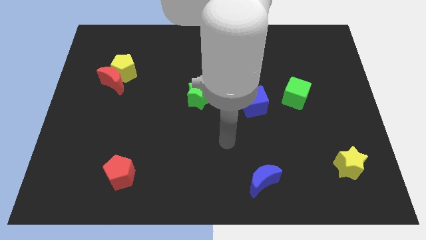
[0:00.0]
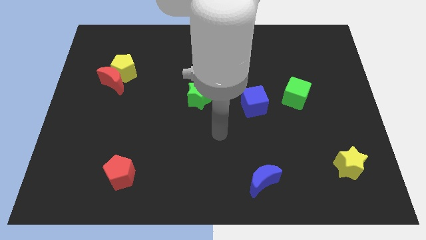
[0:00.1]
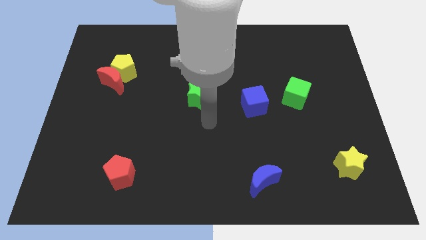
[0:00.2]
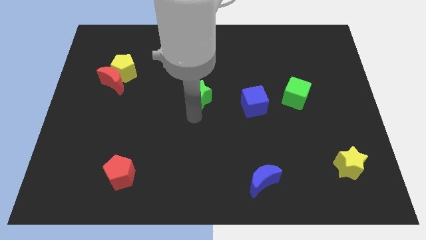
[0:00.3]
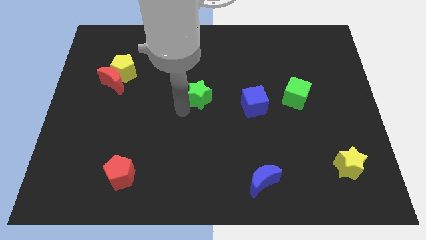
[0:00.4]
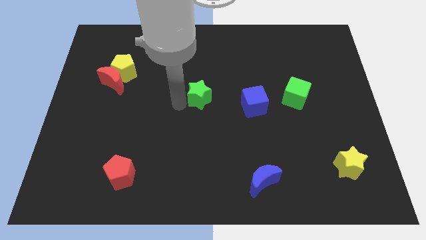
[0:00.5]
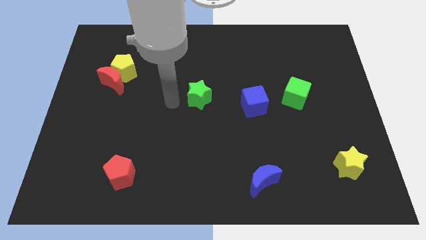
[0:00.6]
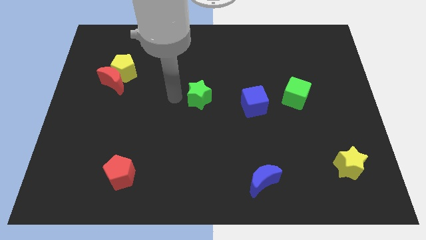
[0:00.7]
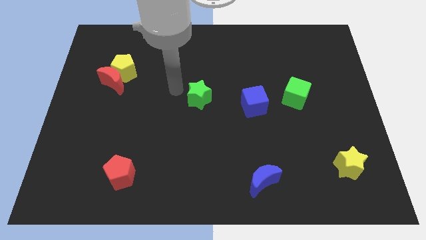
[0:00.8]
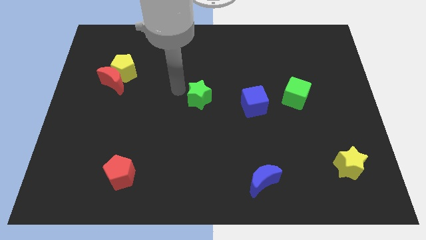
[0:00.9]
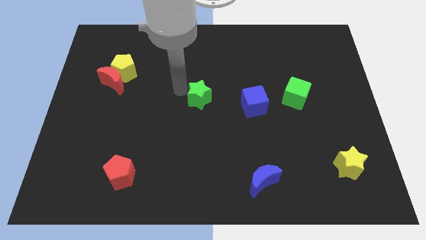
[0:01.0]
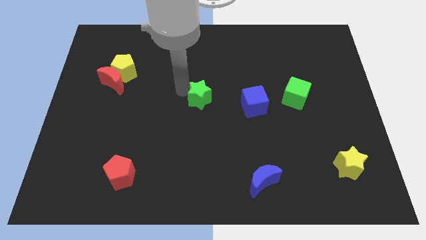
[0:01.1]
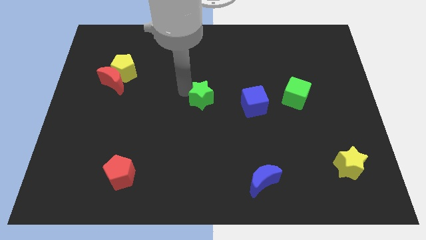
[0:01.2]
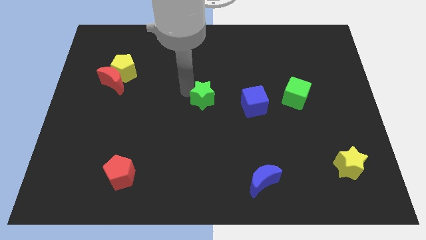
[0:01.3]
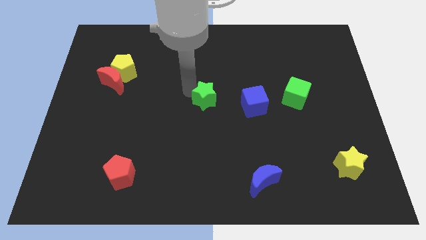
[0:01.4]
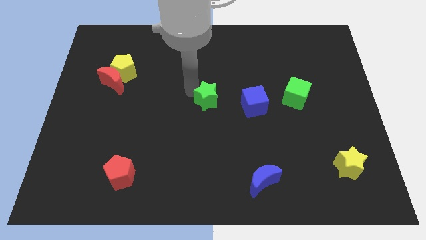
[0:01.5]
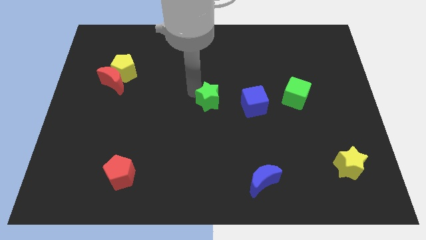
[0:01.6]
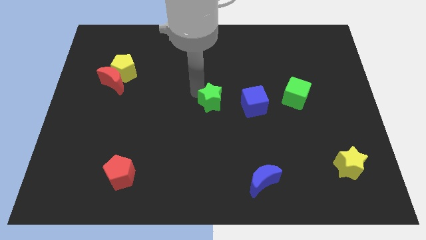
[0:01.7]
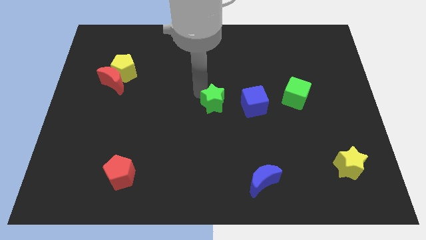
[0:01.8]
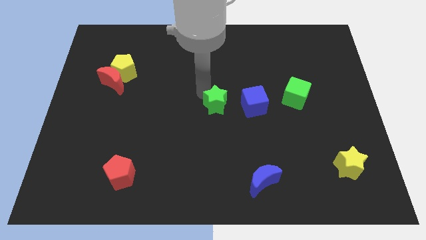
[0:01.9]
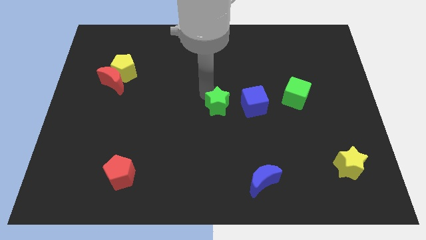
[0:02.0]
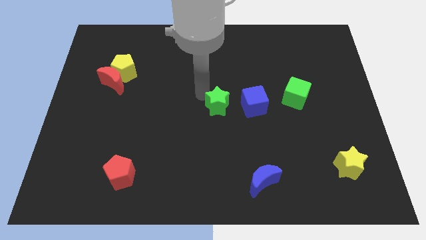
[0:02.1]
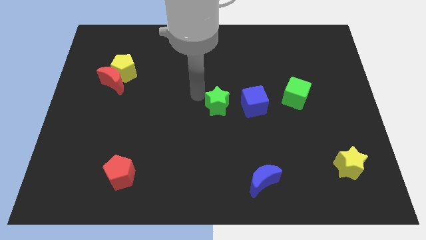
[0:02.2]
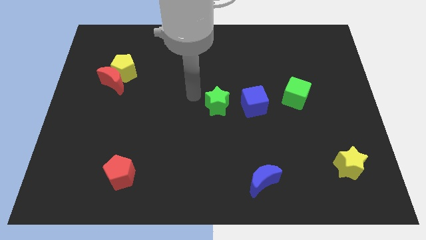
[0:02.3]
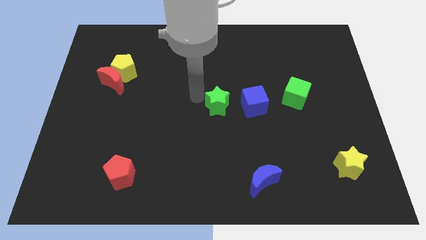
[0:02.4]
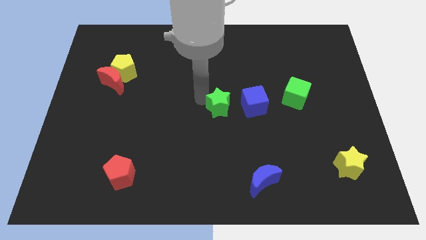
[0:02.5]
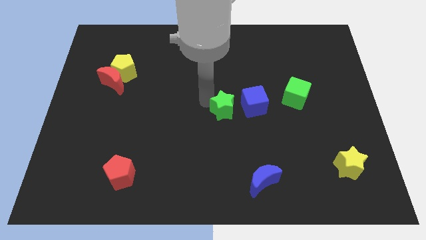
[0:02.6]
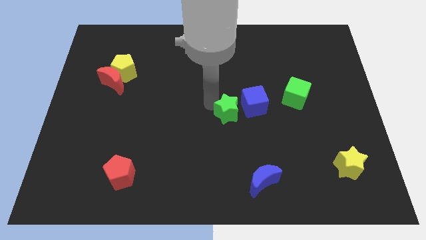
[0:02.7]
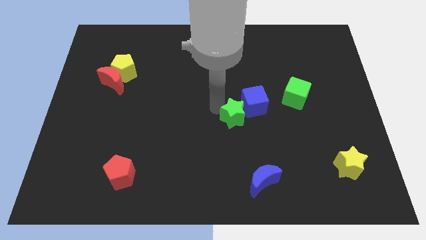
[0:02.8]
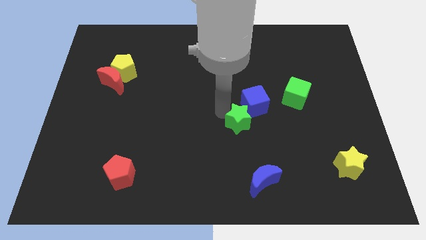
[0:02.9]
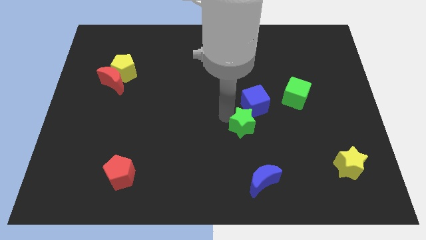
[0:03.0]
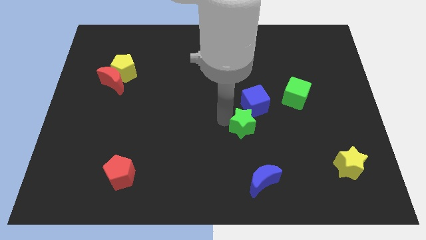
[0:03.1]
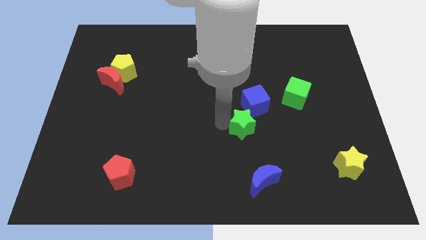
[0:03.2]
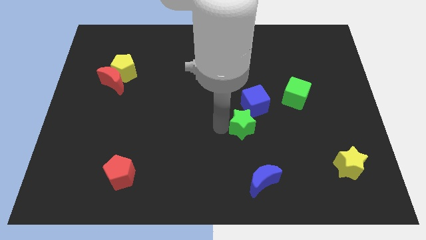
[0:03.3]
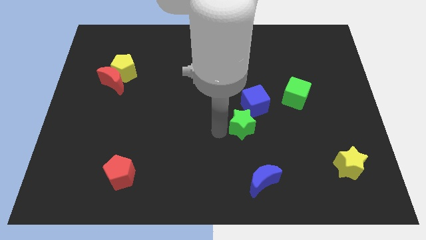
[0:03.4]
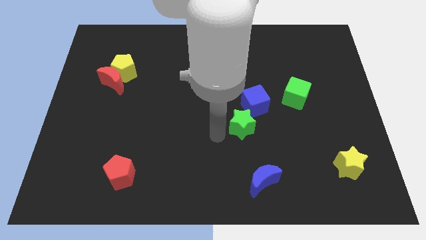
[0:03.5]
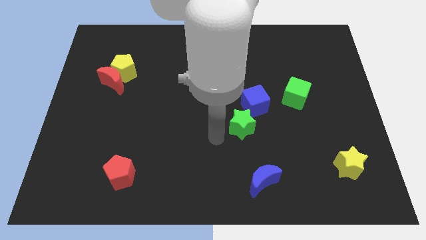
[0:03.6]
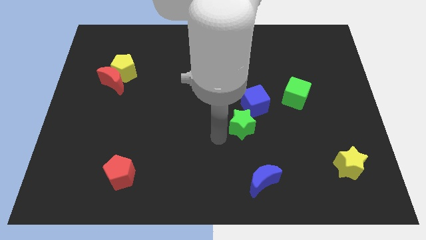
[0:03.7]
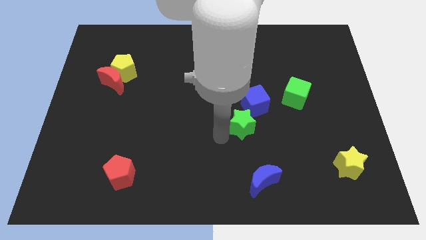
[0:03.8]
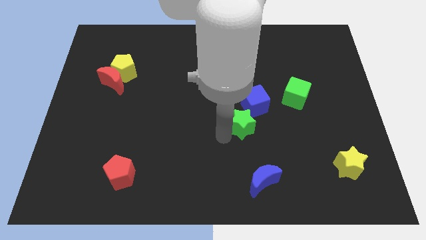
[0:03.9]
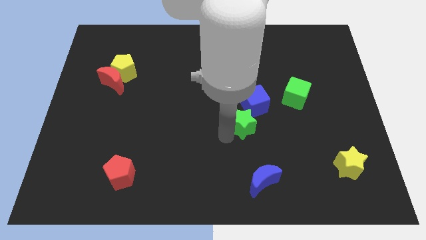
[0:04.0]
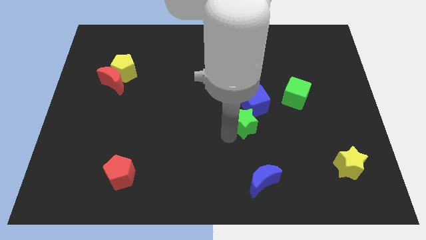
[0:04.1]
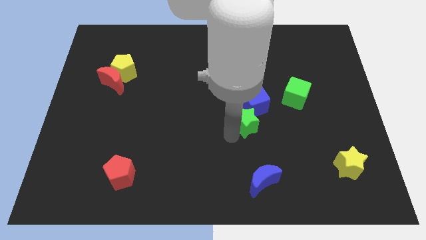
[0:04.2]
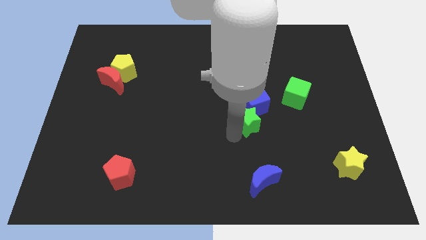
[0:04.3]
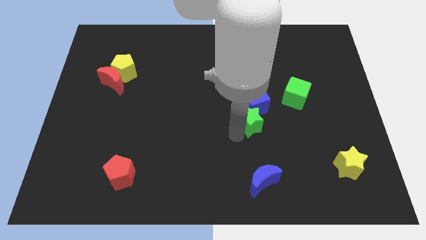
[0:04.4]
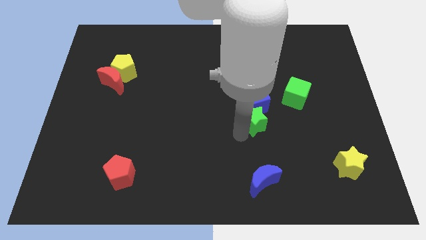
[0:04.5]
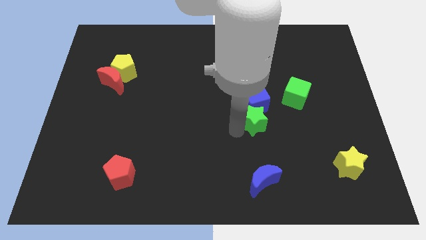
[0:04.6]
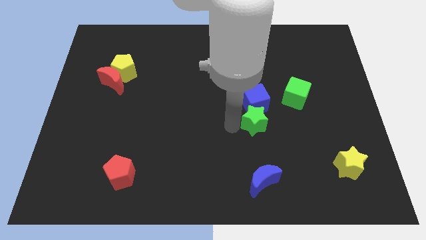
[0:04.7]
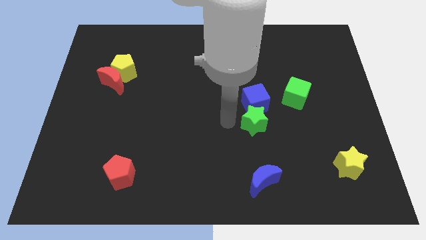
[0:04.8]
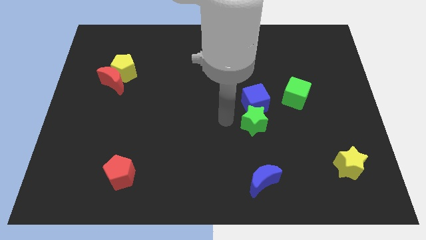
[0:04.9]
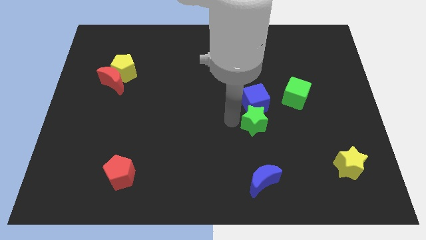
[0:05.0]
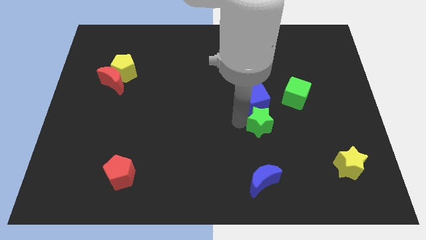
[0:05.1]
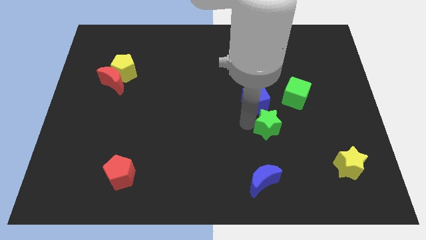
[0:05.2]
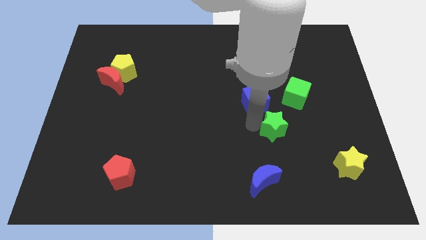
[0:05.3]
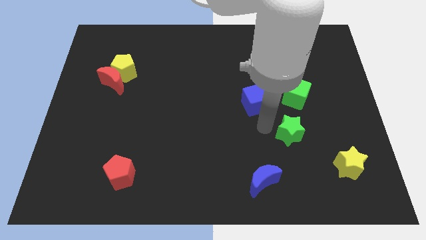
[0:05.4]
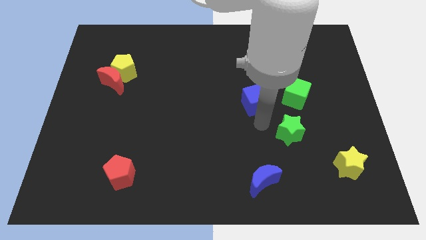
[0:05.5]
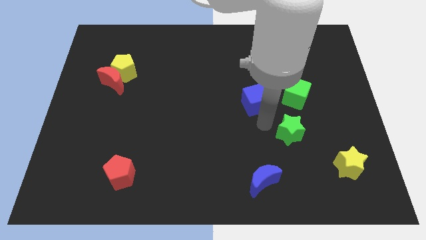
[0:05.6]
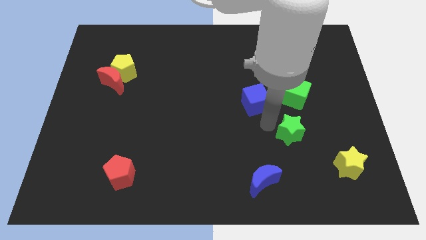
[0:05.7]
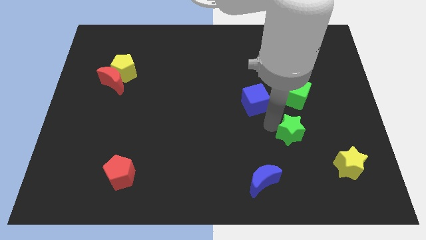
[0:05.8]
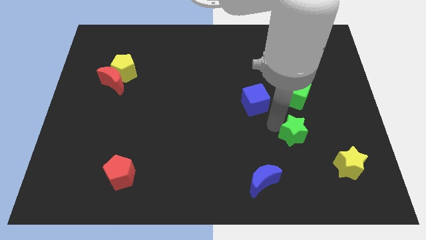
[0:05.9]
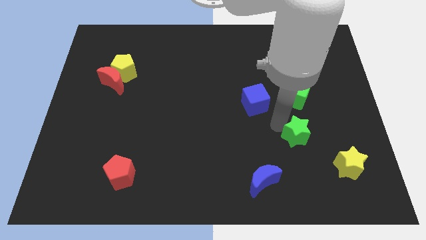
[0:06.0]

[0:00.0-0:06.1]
push the green star diagonally up and to the left of the yellow star

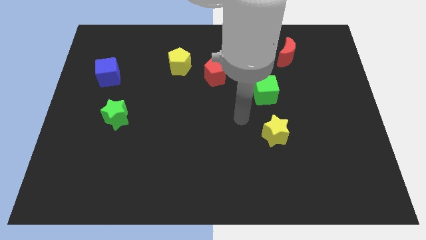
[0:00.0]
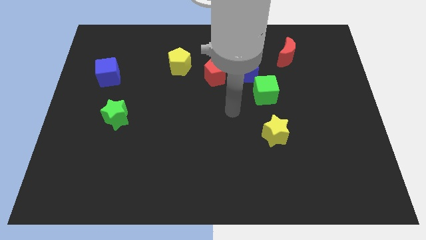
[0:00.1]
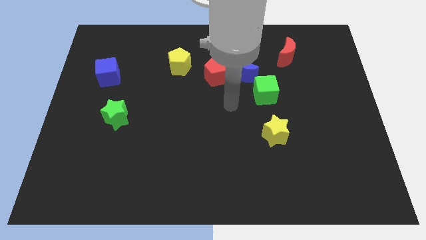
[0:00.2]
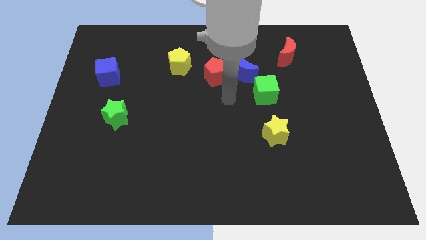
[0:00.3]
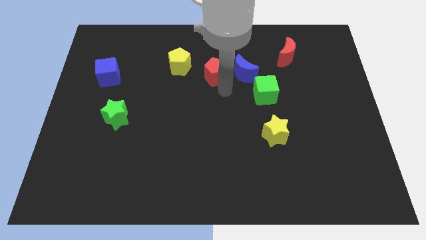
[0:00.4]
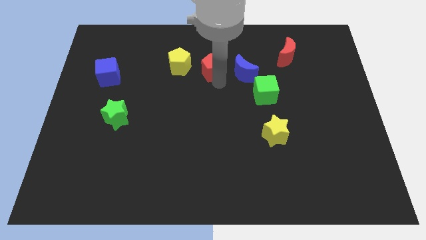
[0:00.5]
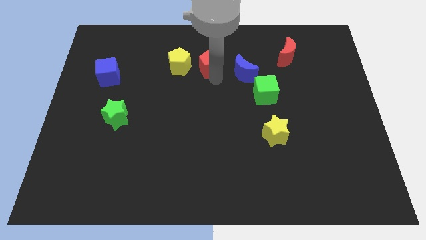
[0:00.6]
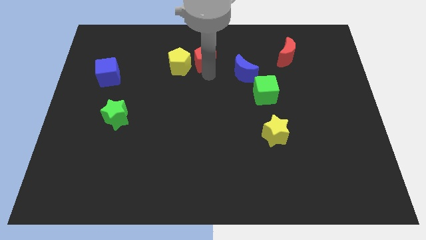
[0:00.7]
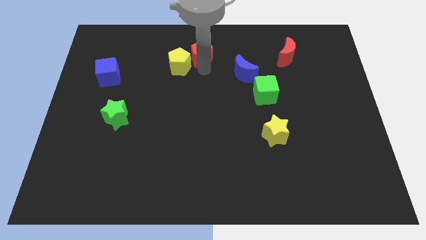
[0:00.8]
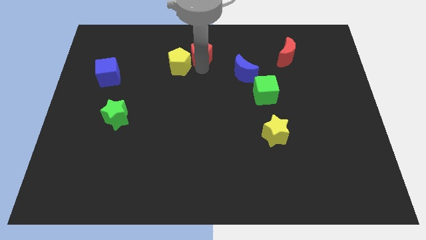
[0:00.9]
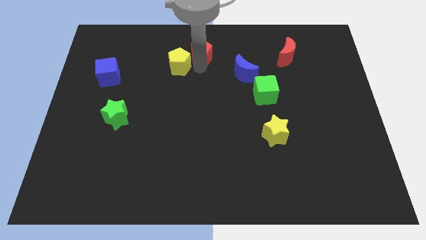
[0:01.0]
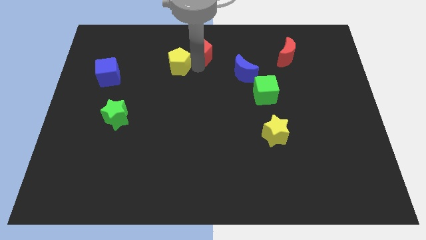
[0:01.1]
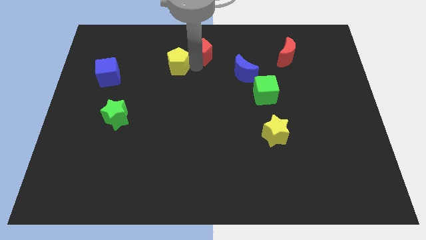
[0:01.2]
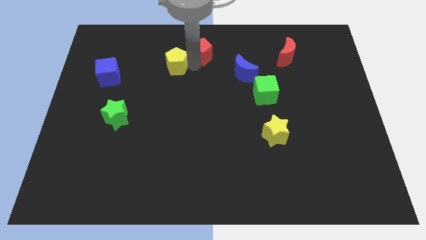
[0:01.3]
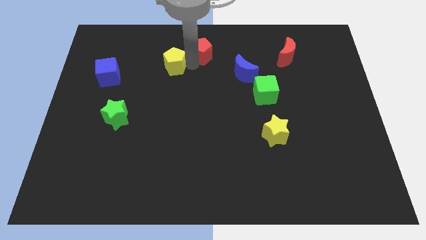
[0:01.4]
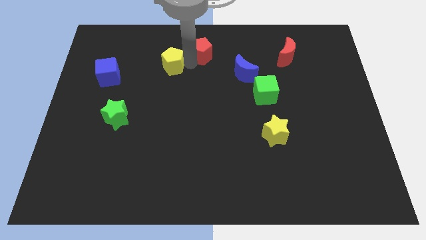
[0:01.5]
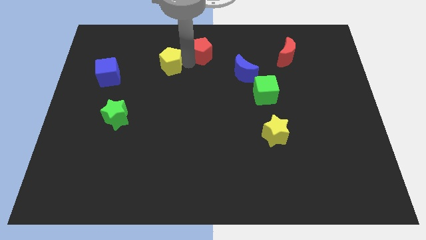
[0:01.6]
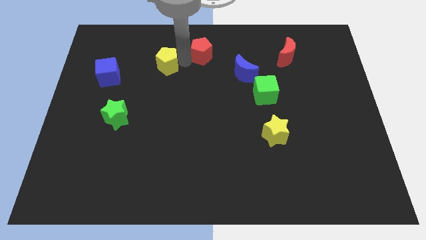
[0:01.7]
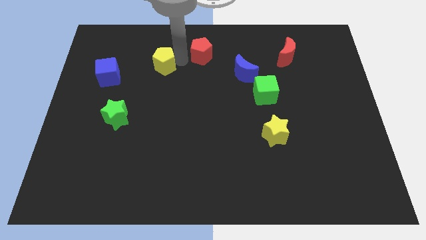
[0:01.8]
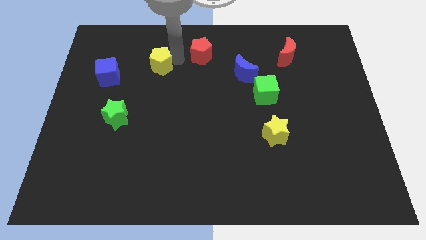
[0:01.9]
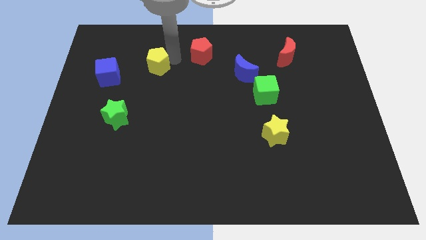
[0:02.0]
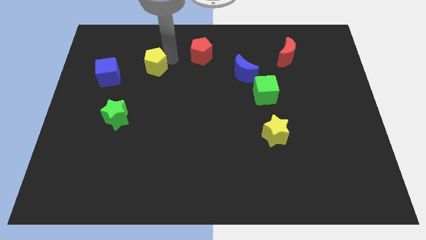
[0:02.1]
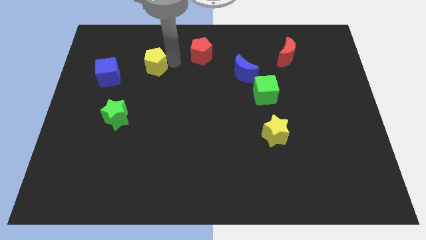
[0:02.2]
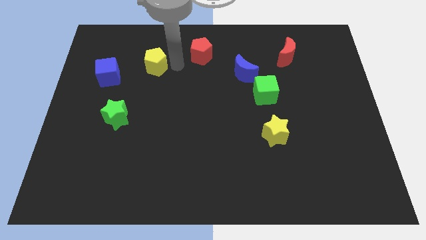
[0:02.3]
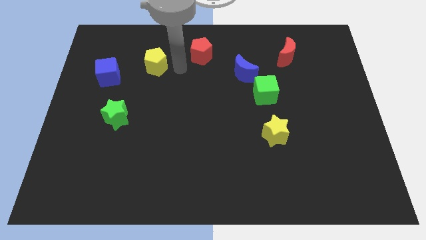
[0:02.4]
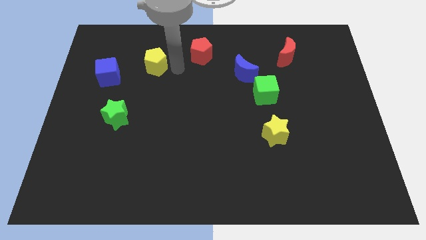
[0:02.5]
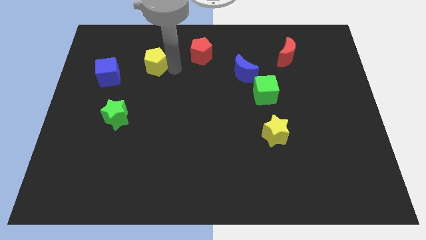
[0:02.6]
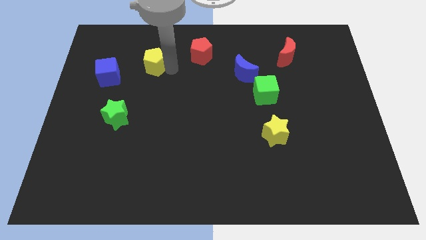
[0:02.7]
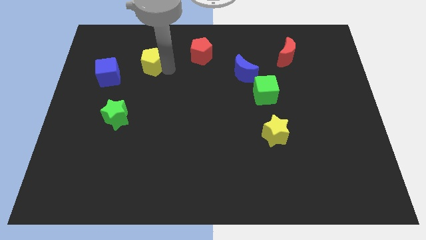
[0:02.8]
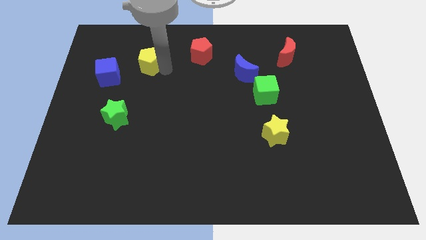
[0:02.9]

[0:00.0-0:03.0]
slide the yellow pentagon to the top right of the blue cube
